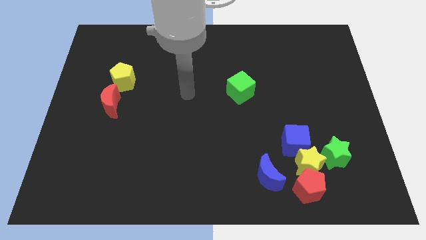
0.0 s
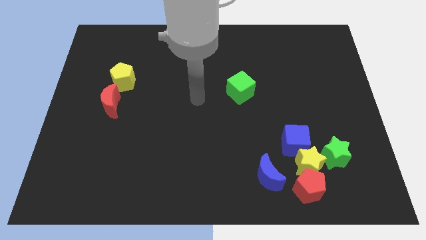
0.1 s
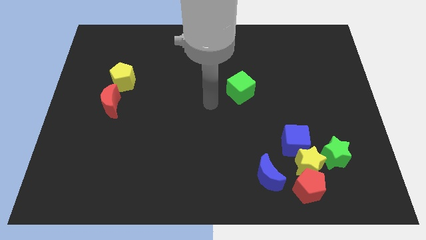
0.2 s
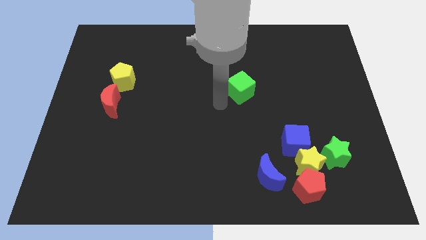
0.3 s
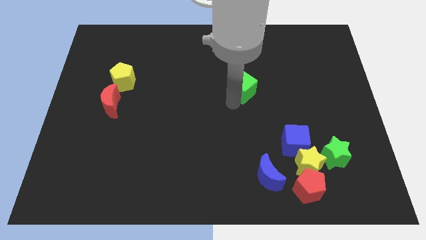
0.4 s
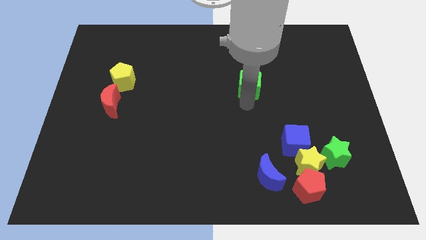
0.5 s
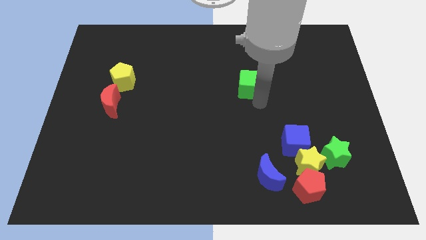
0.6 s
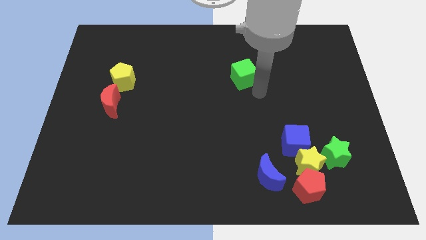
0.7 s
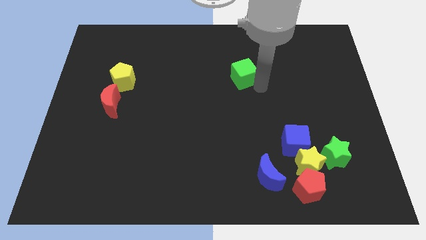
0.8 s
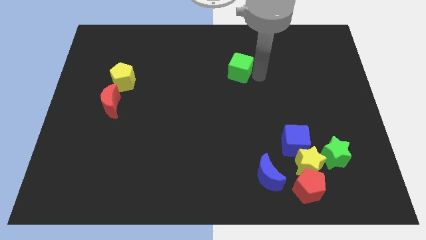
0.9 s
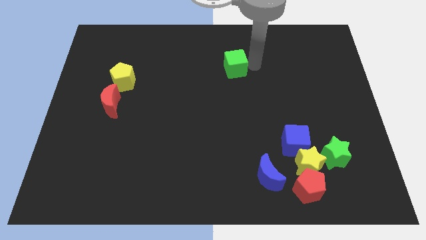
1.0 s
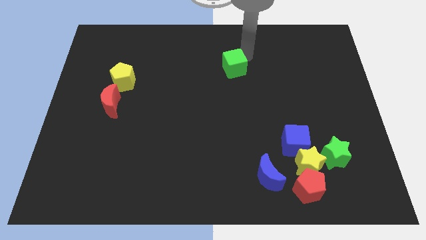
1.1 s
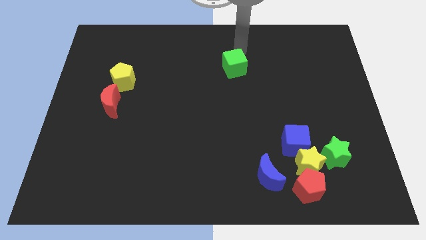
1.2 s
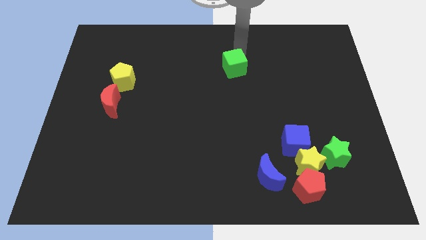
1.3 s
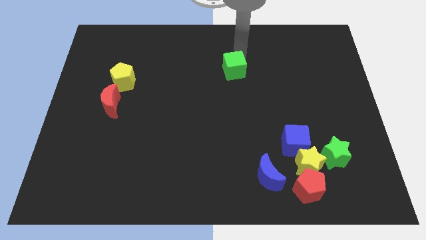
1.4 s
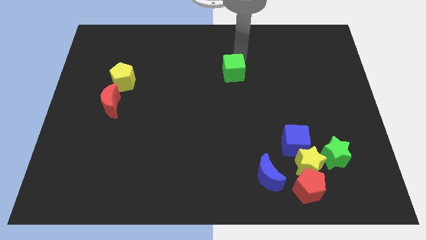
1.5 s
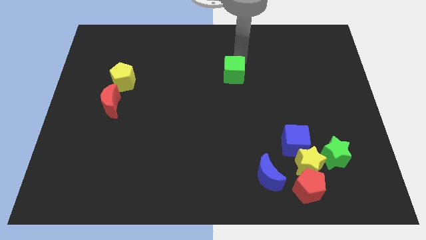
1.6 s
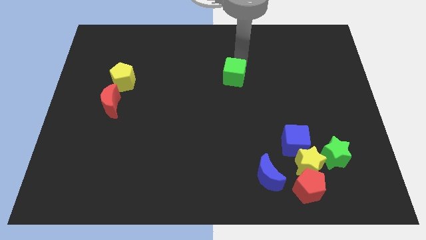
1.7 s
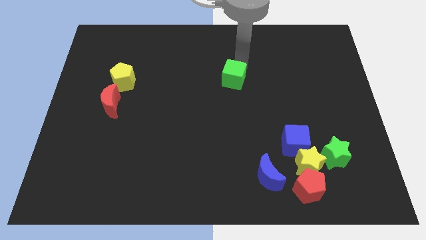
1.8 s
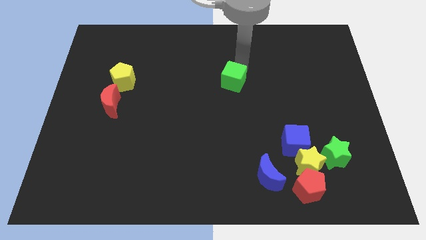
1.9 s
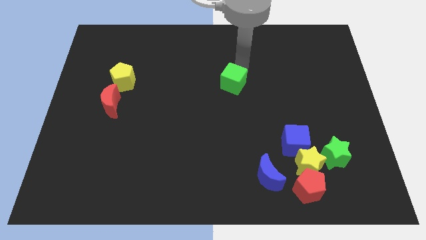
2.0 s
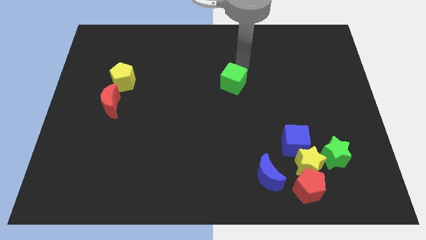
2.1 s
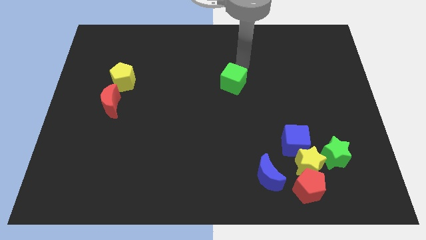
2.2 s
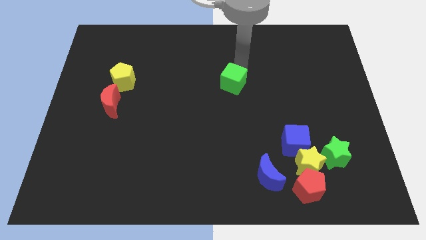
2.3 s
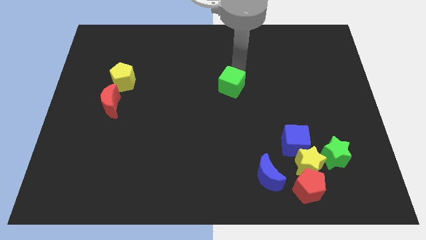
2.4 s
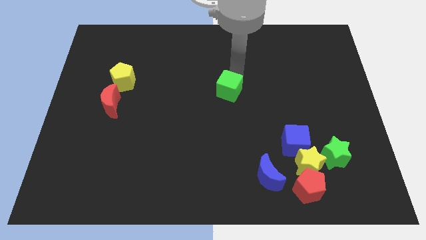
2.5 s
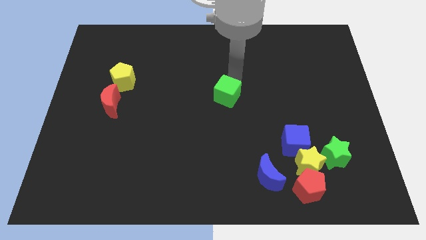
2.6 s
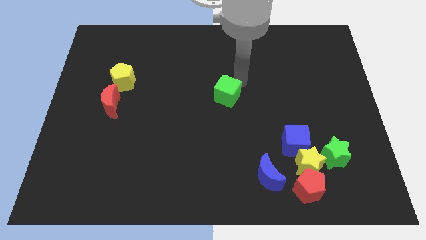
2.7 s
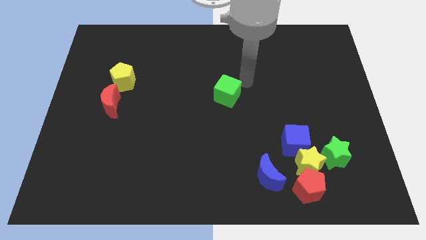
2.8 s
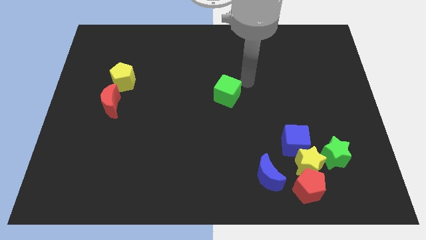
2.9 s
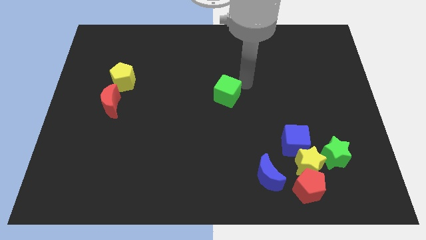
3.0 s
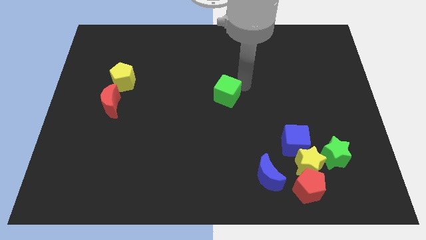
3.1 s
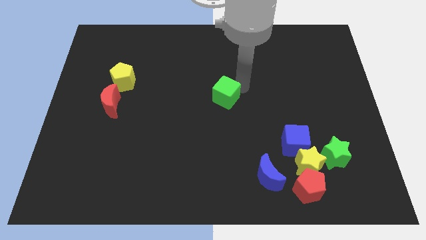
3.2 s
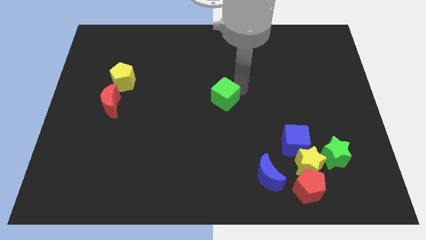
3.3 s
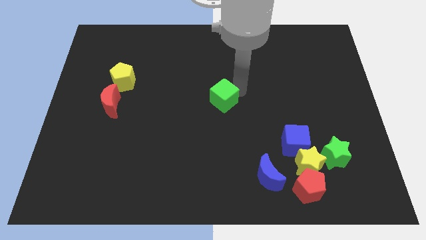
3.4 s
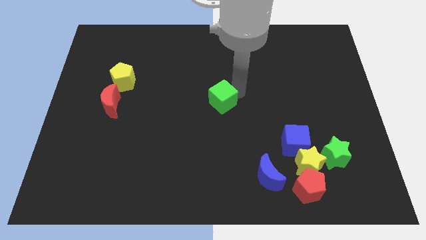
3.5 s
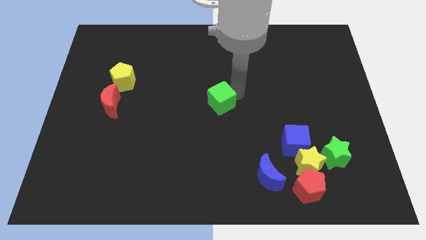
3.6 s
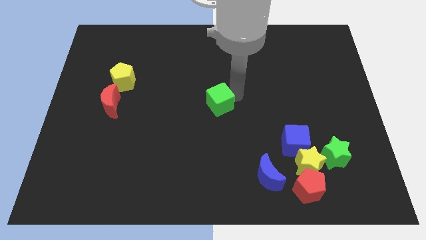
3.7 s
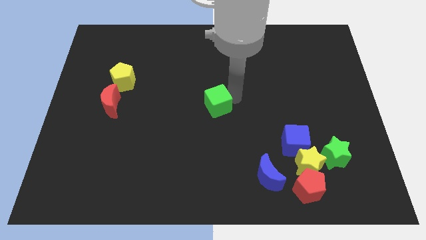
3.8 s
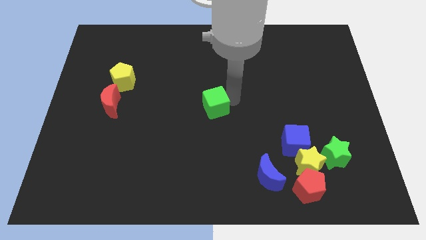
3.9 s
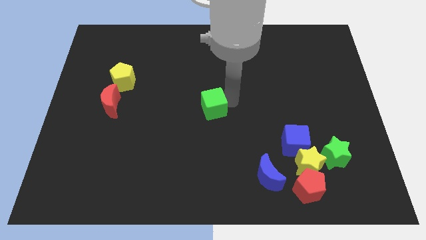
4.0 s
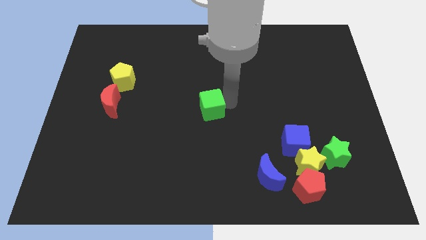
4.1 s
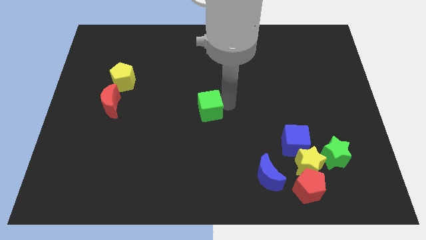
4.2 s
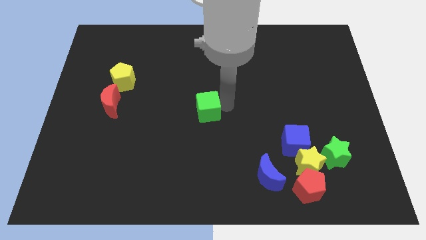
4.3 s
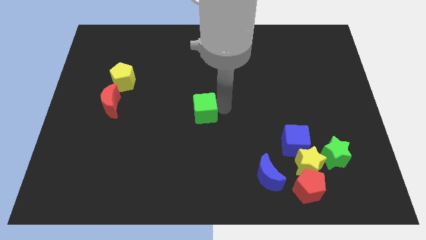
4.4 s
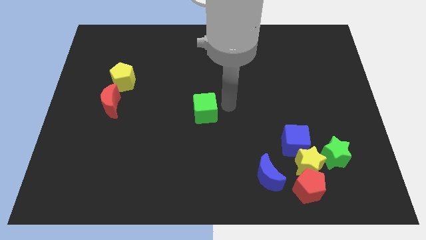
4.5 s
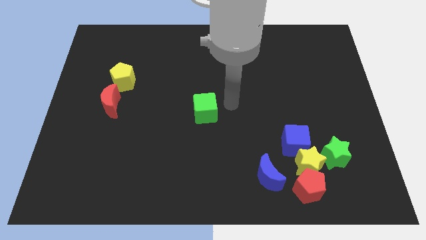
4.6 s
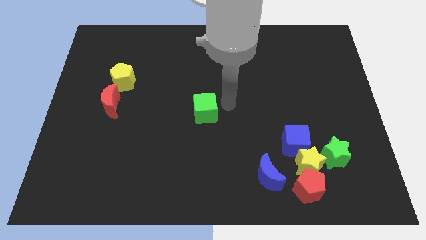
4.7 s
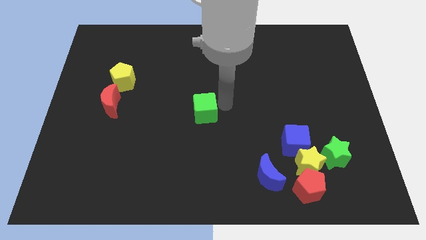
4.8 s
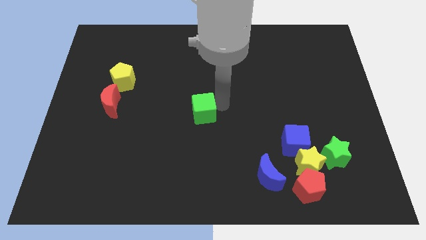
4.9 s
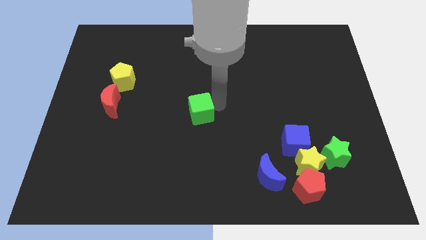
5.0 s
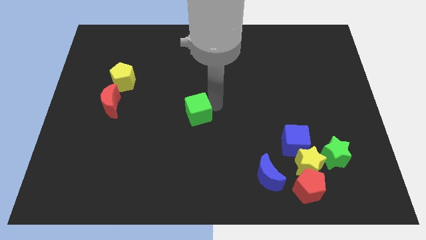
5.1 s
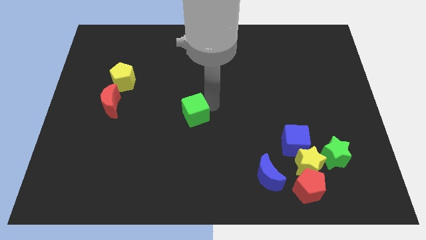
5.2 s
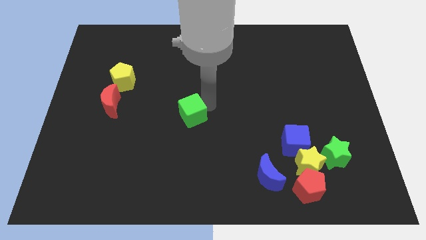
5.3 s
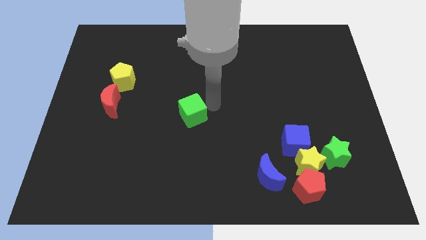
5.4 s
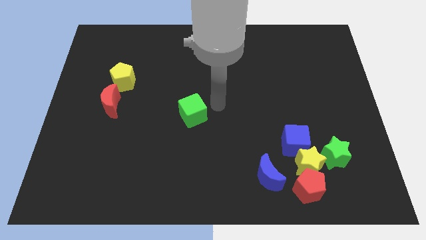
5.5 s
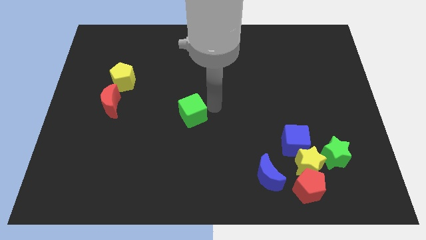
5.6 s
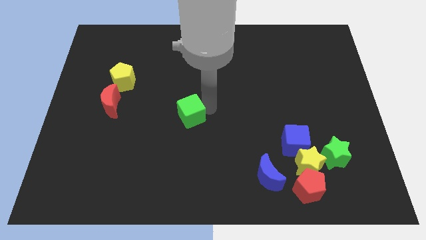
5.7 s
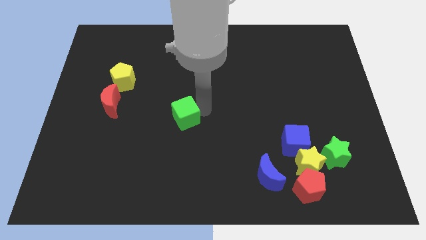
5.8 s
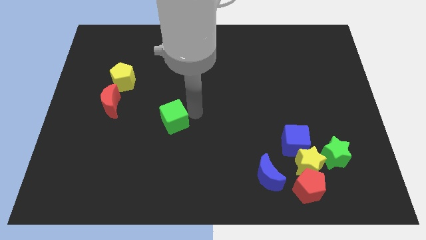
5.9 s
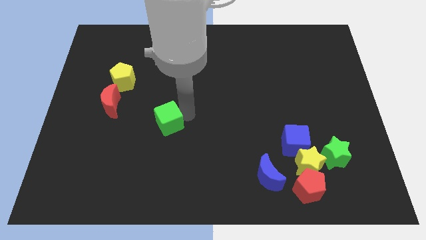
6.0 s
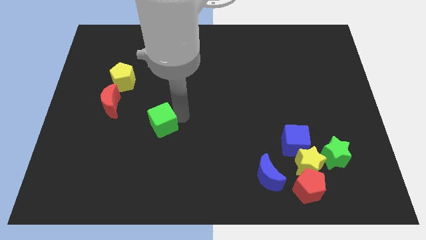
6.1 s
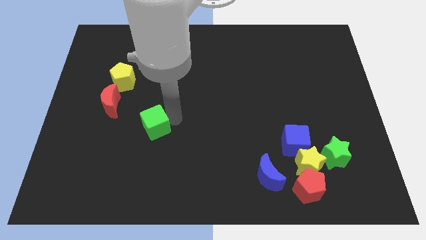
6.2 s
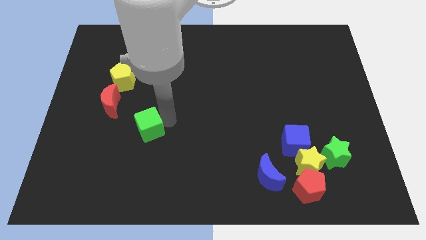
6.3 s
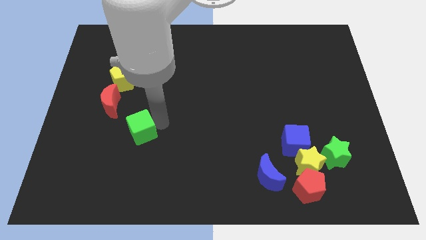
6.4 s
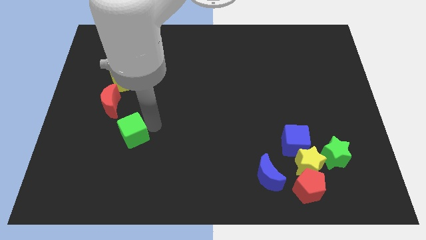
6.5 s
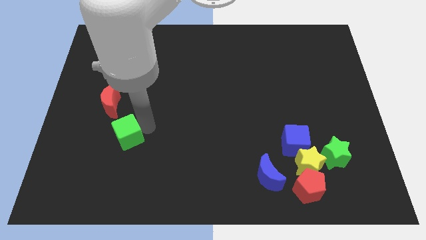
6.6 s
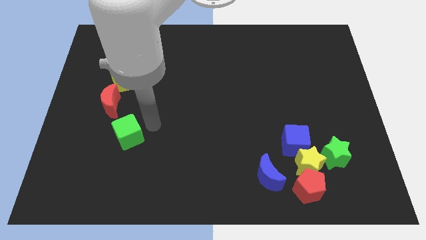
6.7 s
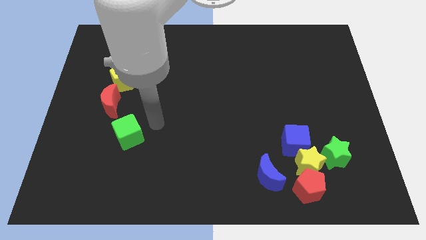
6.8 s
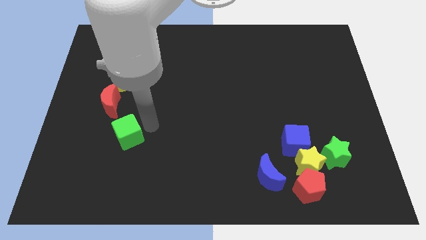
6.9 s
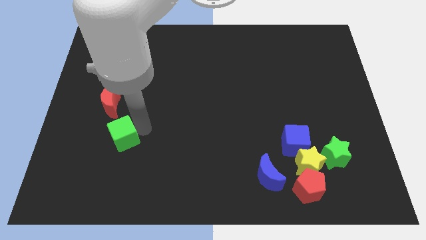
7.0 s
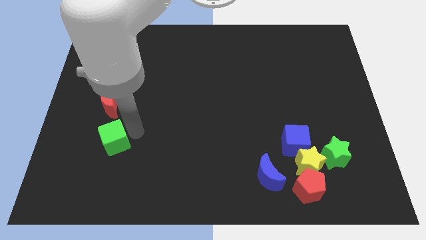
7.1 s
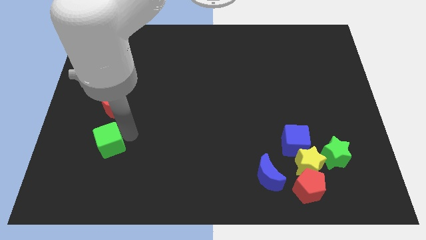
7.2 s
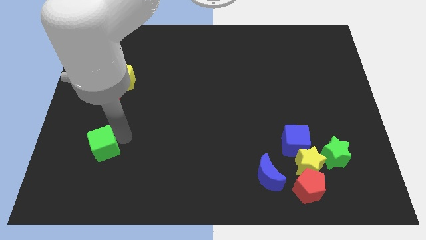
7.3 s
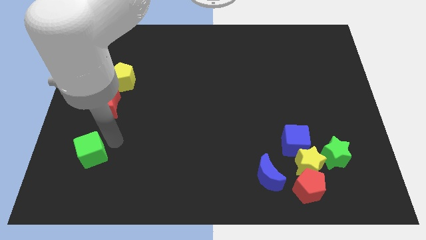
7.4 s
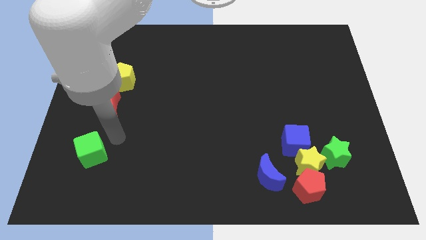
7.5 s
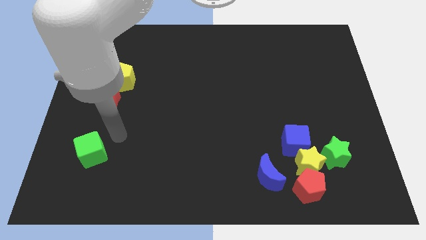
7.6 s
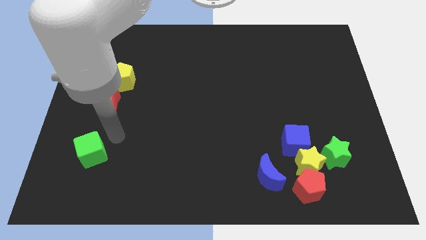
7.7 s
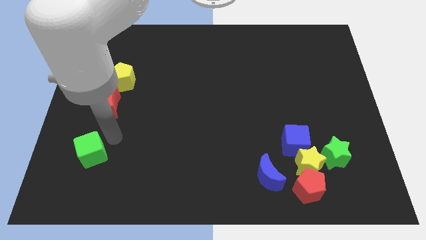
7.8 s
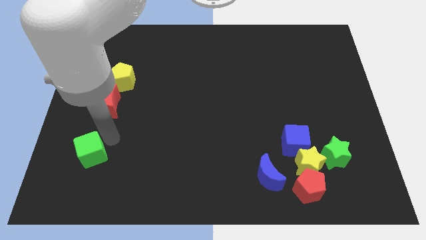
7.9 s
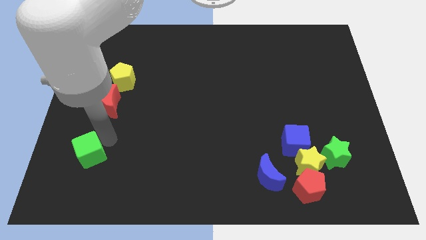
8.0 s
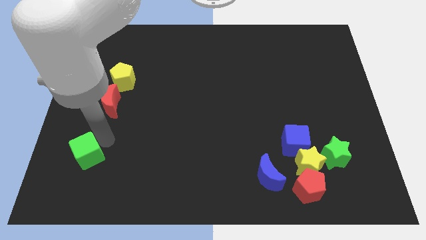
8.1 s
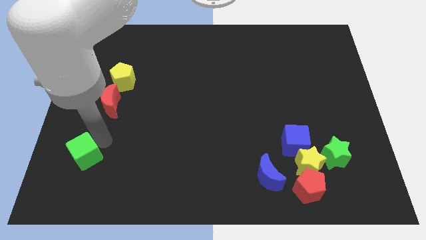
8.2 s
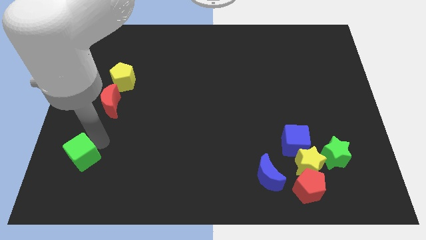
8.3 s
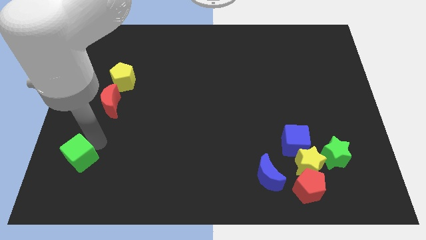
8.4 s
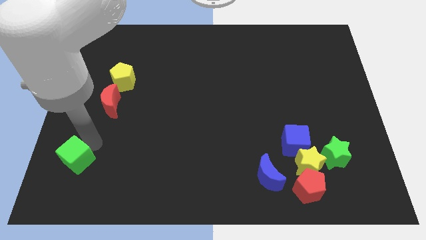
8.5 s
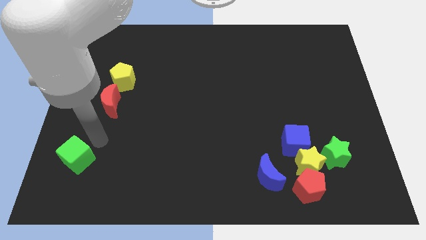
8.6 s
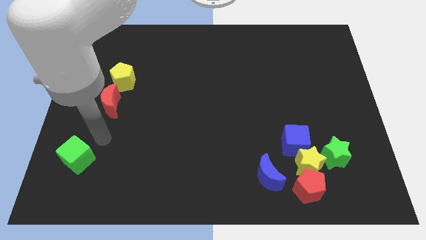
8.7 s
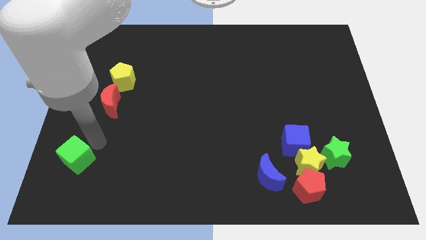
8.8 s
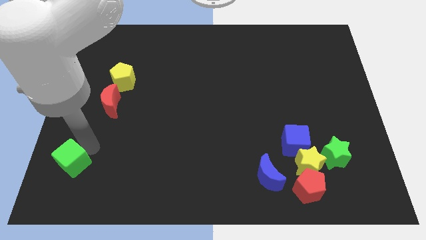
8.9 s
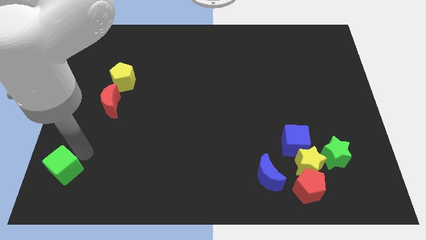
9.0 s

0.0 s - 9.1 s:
move the green cube to the lower left corner
